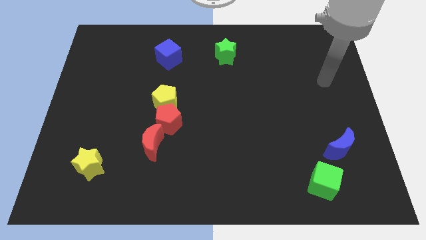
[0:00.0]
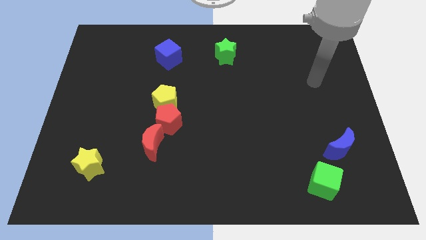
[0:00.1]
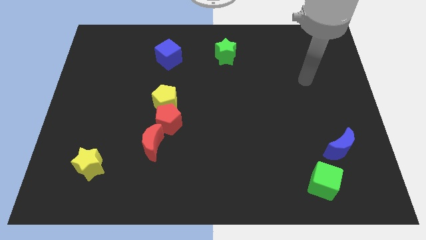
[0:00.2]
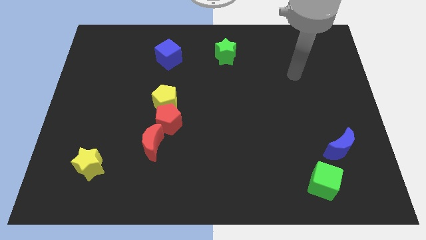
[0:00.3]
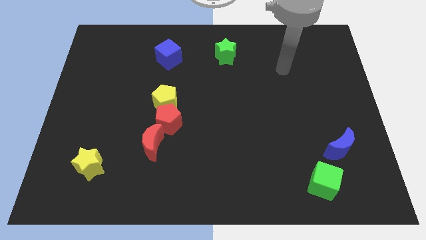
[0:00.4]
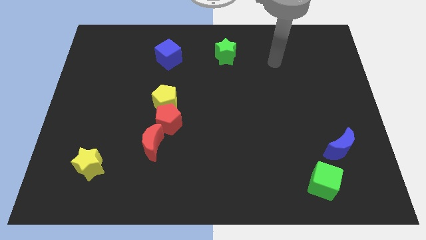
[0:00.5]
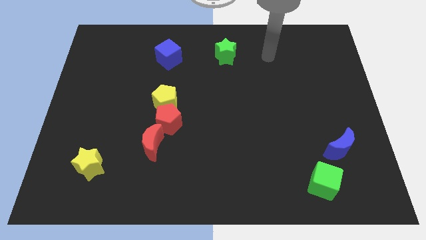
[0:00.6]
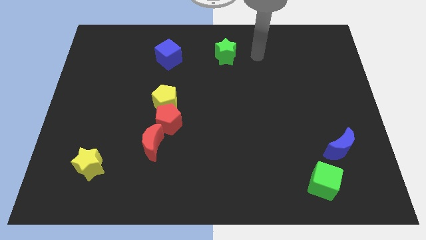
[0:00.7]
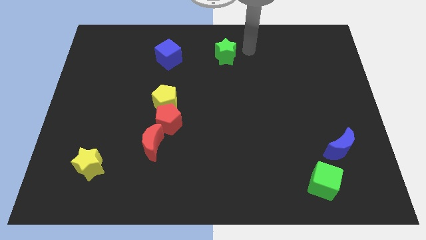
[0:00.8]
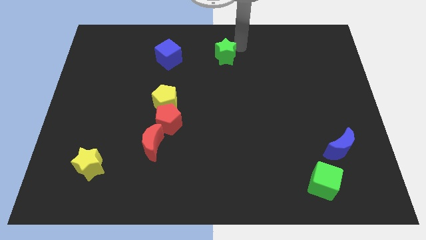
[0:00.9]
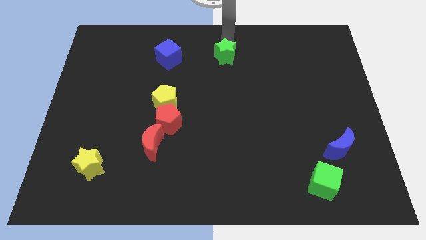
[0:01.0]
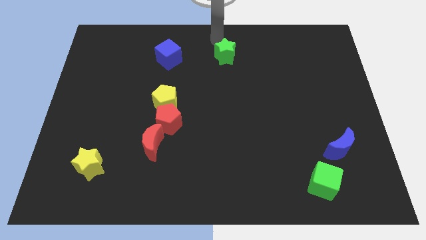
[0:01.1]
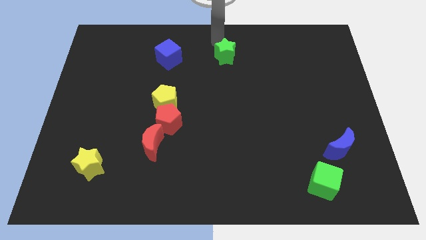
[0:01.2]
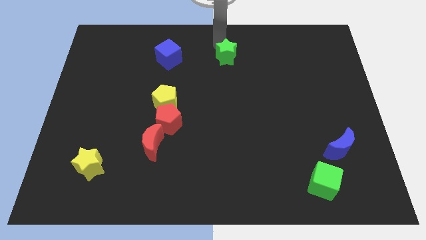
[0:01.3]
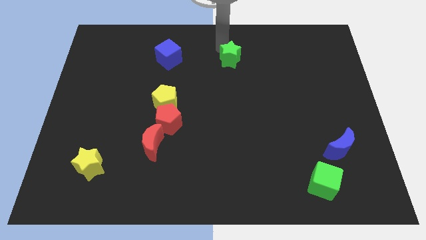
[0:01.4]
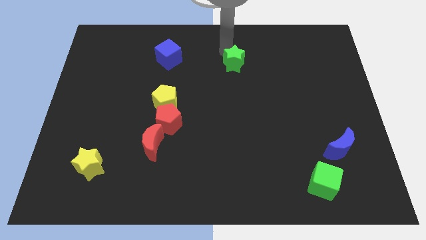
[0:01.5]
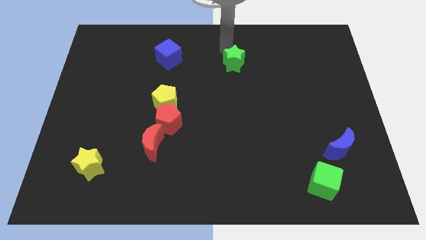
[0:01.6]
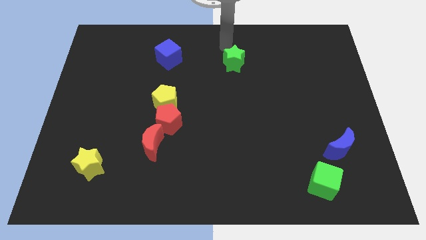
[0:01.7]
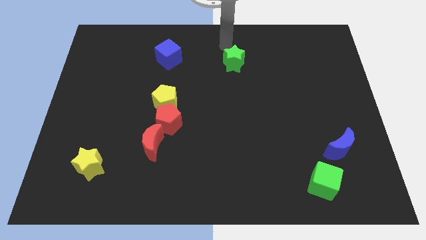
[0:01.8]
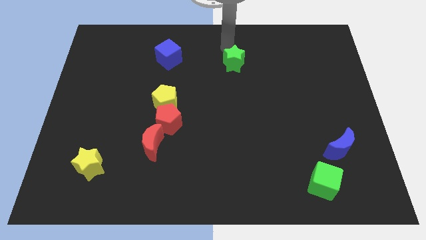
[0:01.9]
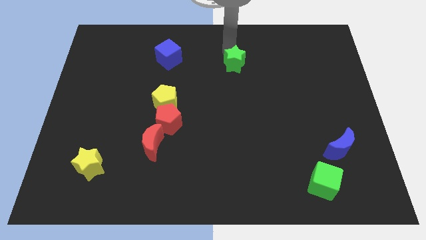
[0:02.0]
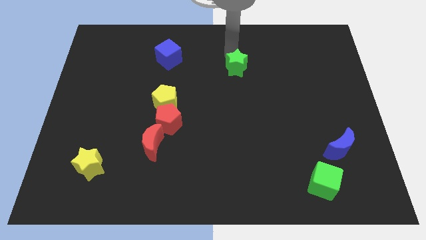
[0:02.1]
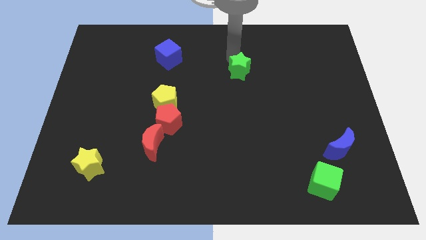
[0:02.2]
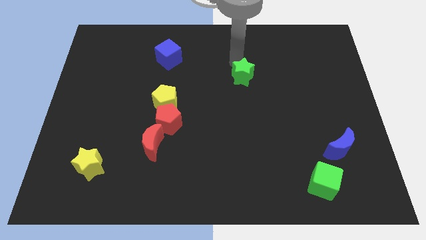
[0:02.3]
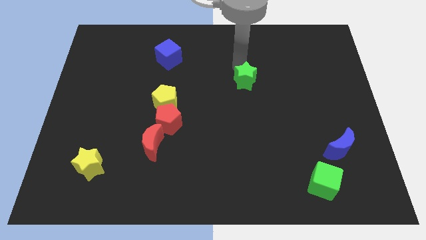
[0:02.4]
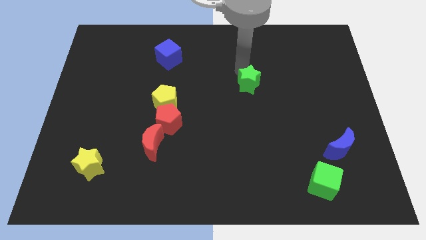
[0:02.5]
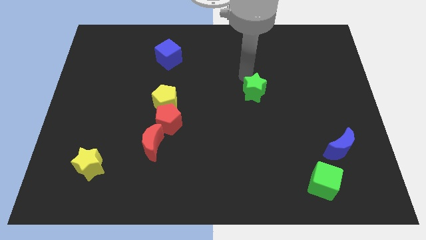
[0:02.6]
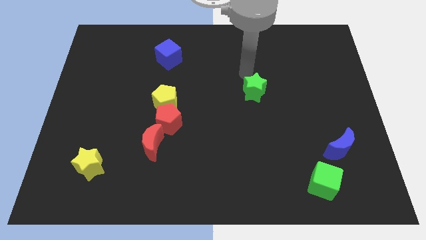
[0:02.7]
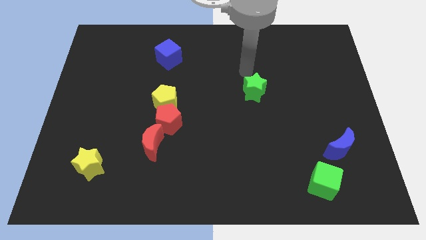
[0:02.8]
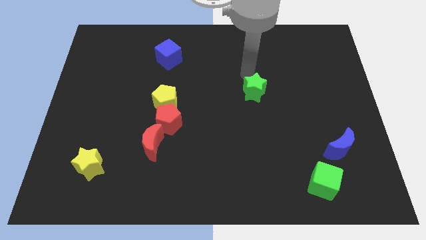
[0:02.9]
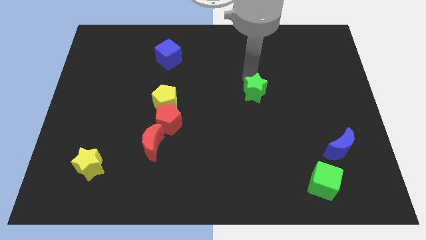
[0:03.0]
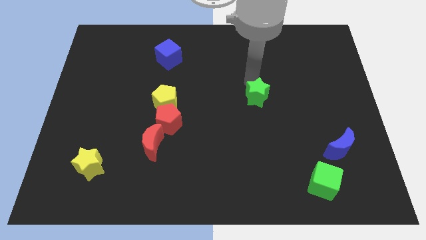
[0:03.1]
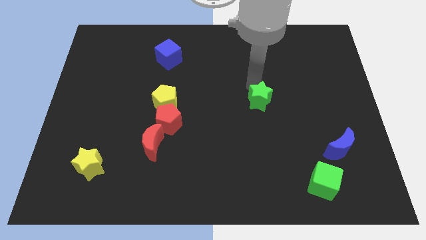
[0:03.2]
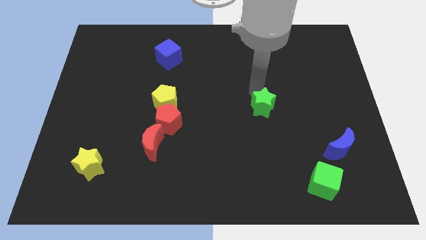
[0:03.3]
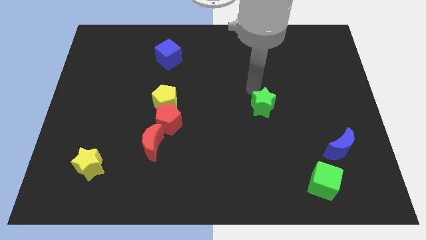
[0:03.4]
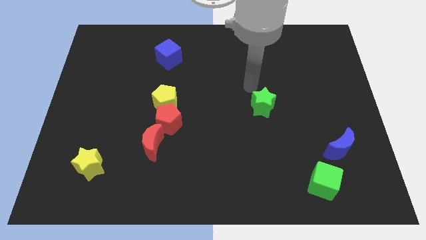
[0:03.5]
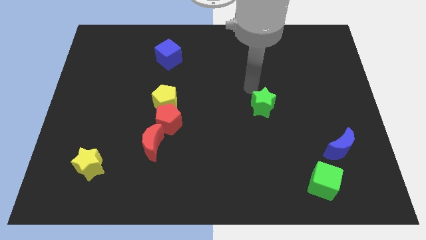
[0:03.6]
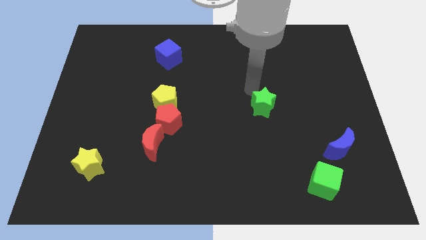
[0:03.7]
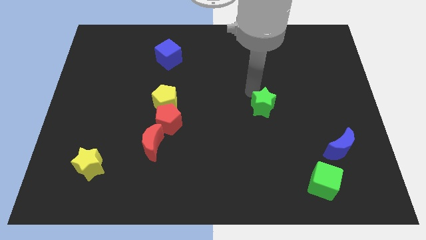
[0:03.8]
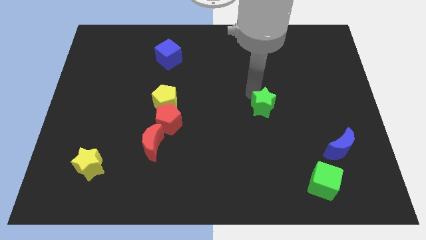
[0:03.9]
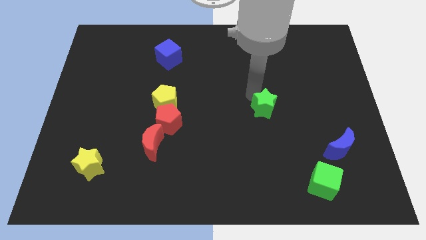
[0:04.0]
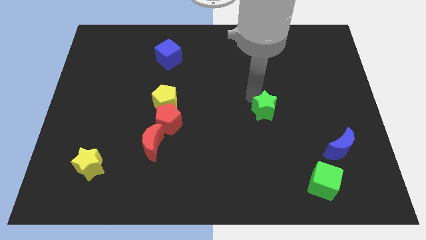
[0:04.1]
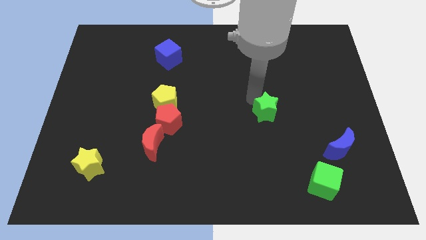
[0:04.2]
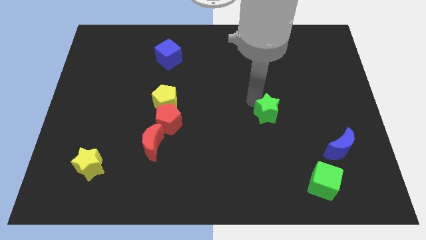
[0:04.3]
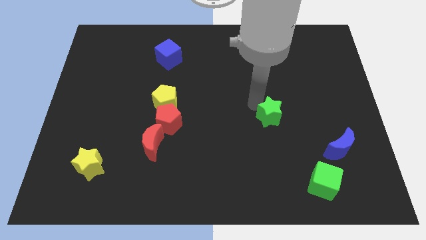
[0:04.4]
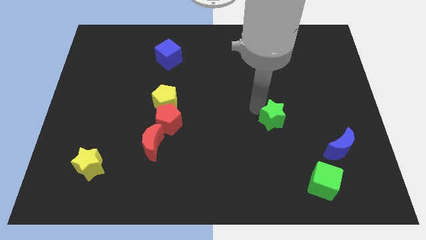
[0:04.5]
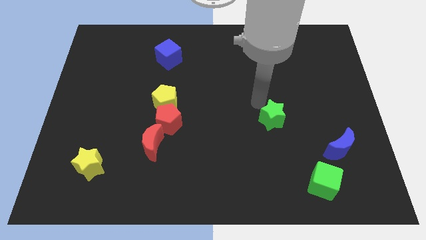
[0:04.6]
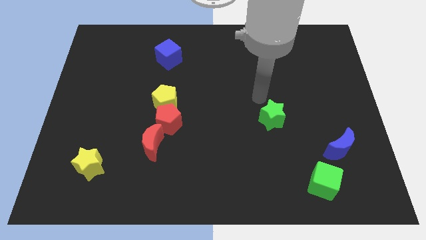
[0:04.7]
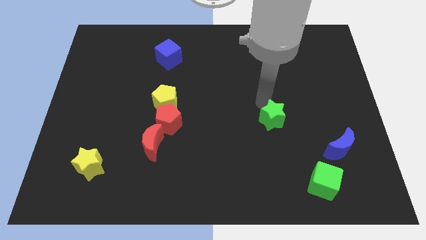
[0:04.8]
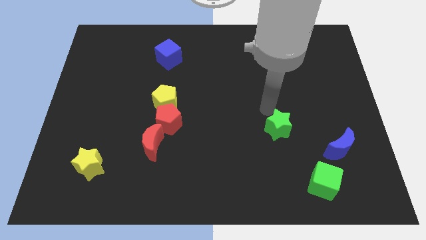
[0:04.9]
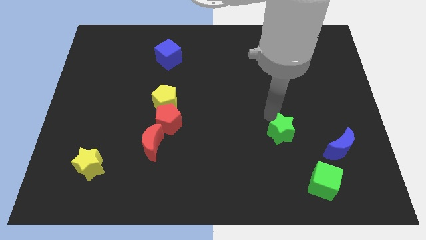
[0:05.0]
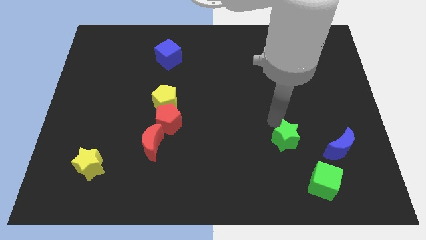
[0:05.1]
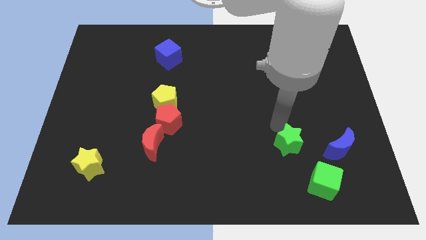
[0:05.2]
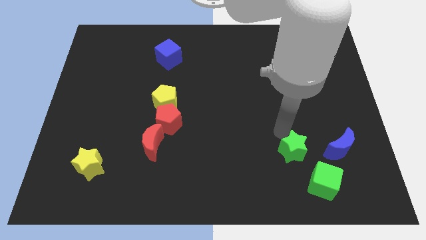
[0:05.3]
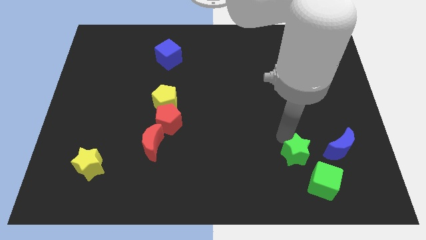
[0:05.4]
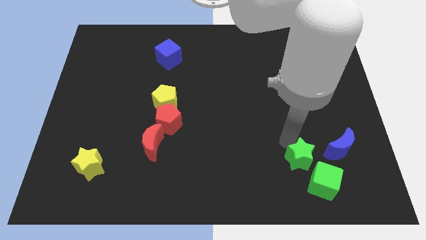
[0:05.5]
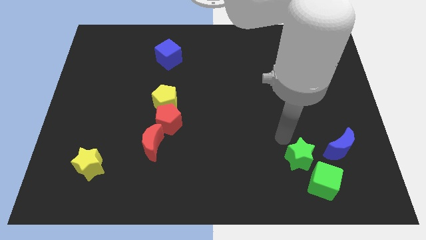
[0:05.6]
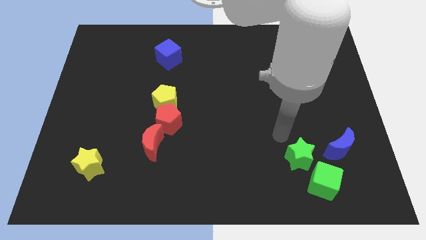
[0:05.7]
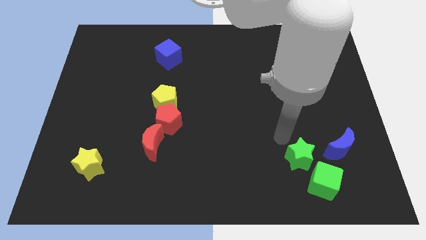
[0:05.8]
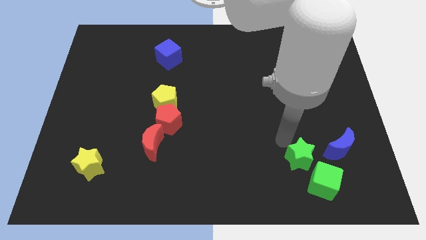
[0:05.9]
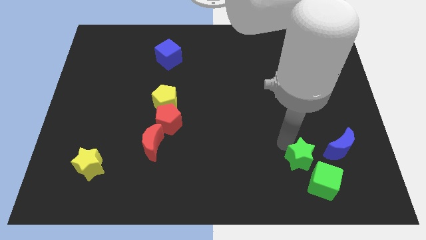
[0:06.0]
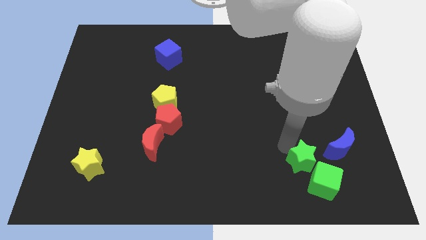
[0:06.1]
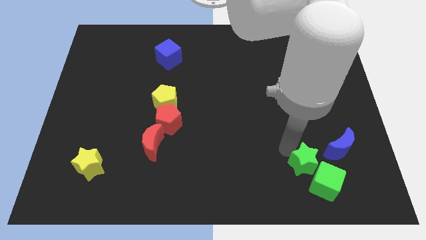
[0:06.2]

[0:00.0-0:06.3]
slide the green star close to the green cube

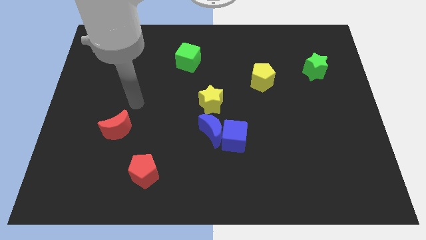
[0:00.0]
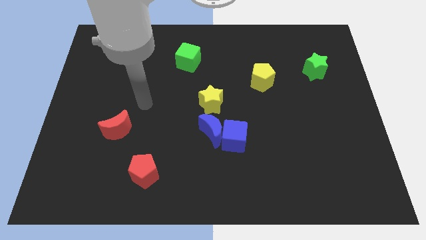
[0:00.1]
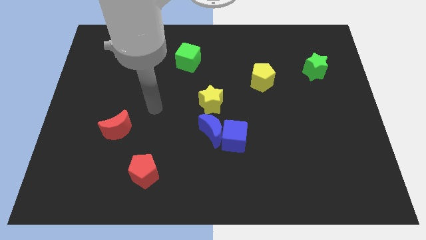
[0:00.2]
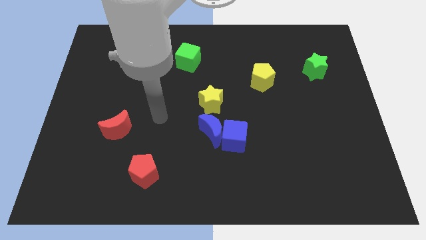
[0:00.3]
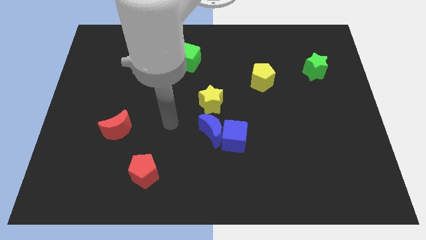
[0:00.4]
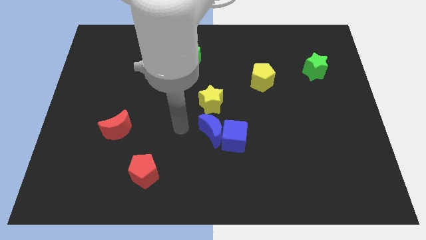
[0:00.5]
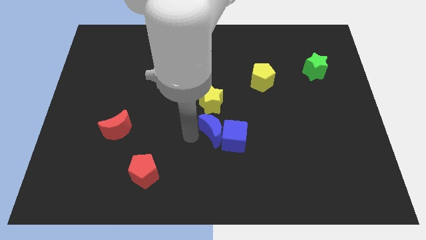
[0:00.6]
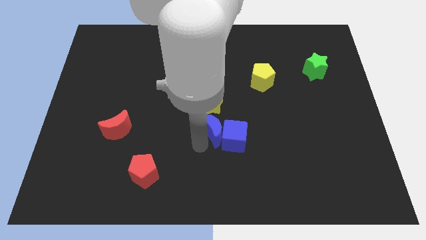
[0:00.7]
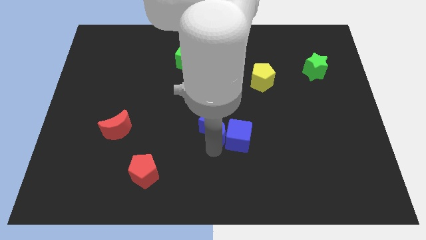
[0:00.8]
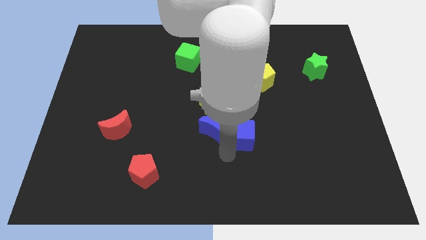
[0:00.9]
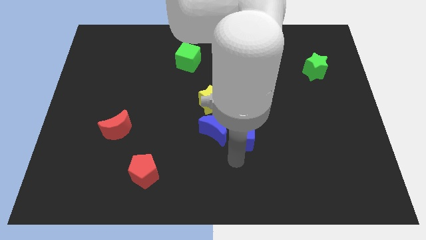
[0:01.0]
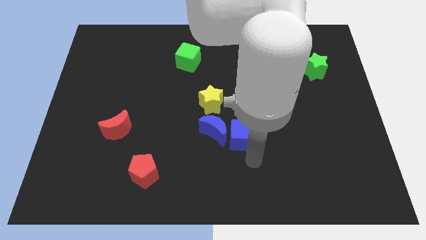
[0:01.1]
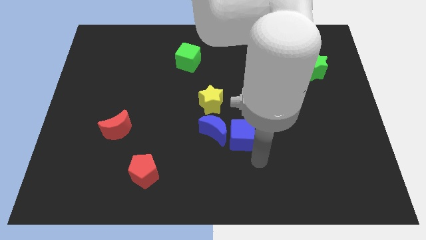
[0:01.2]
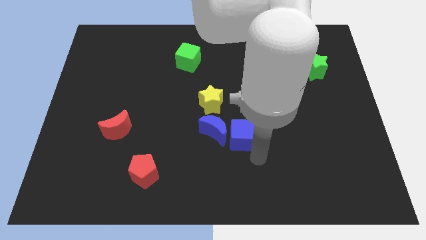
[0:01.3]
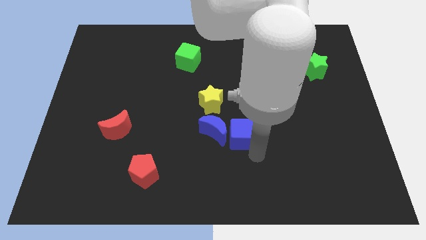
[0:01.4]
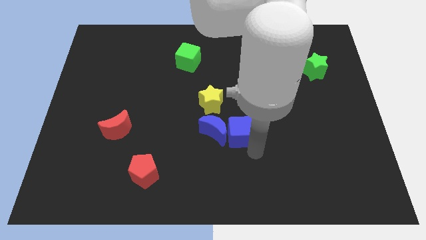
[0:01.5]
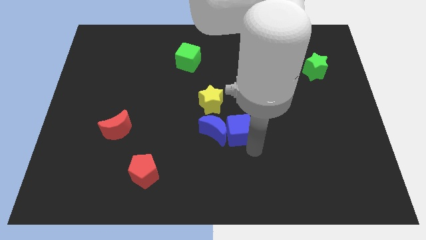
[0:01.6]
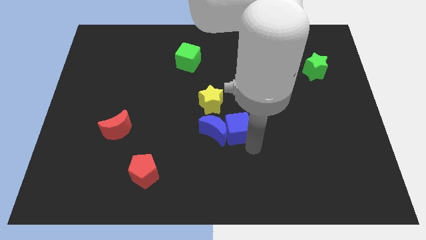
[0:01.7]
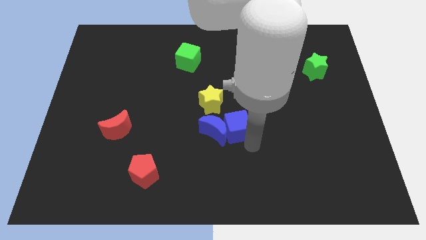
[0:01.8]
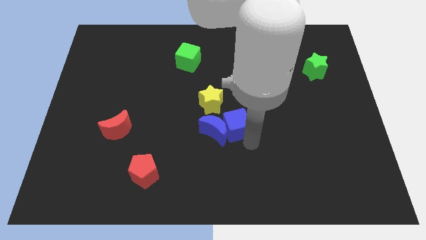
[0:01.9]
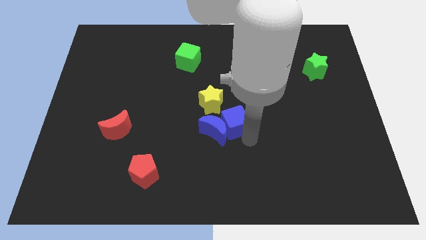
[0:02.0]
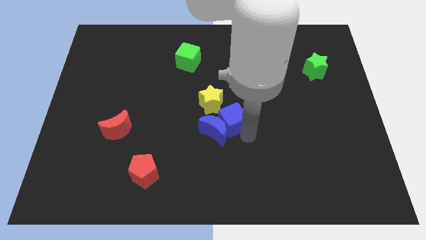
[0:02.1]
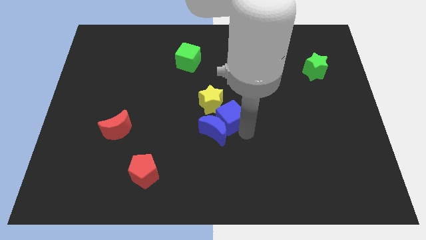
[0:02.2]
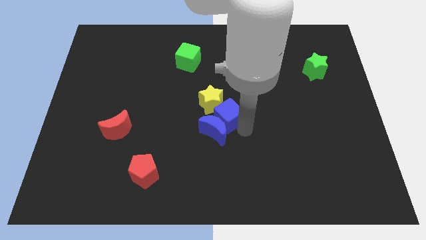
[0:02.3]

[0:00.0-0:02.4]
slide the blue cube close to the yellow star
